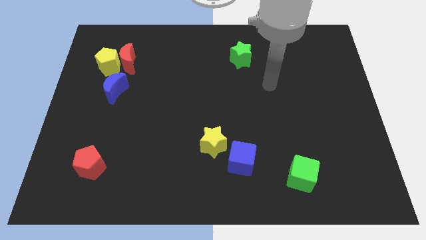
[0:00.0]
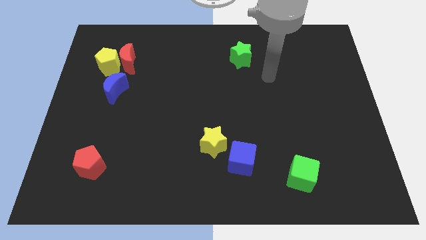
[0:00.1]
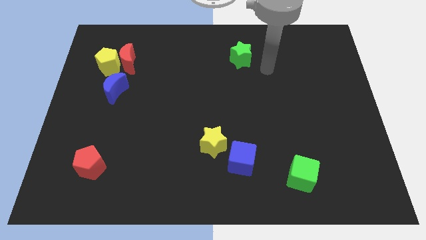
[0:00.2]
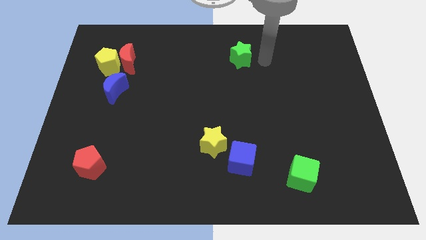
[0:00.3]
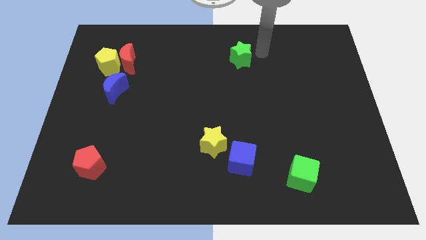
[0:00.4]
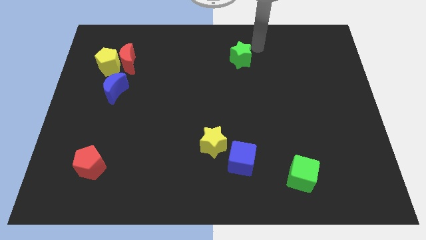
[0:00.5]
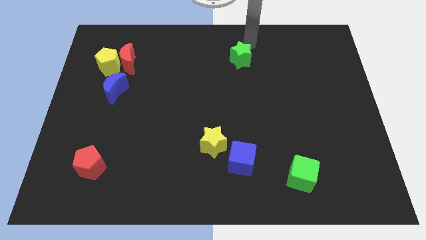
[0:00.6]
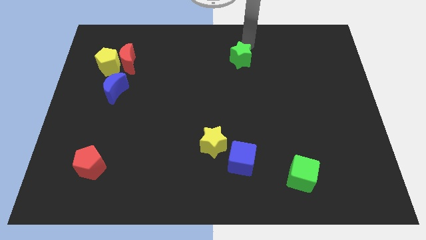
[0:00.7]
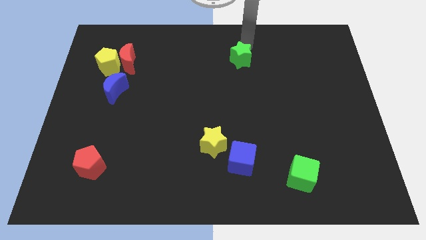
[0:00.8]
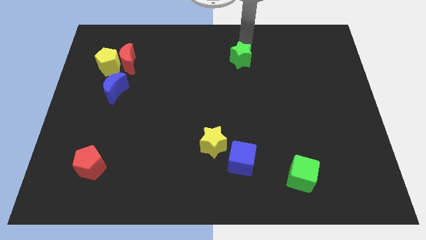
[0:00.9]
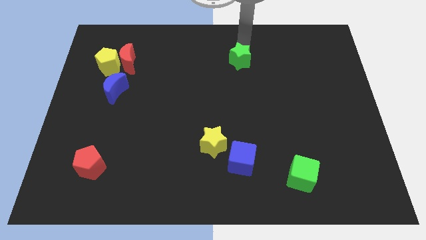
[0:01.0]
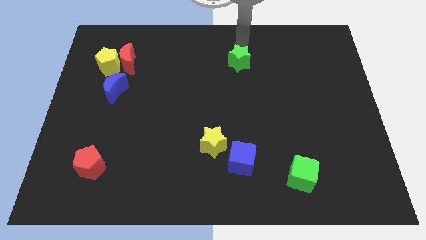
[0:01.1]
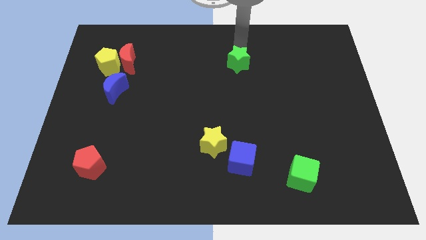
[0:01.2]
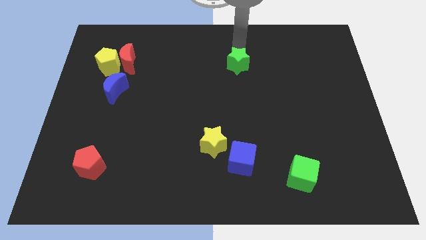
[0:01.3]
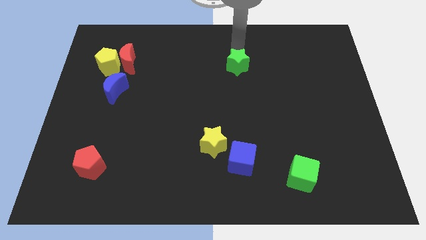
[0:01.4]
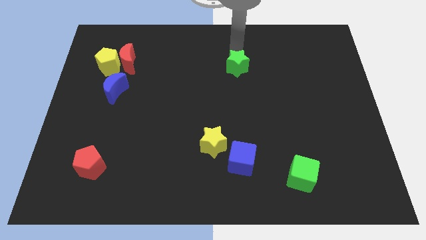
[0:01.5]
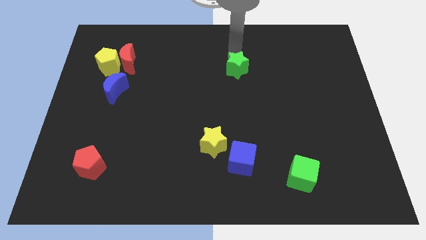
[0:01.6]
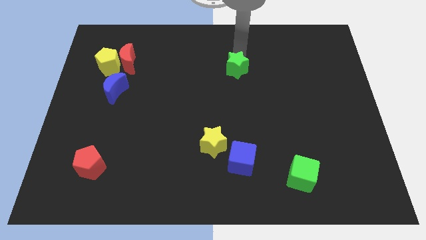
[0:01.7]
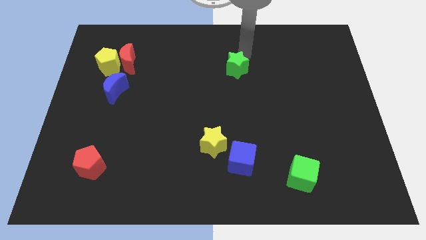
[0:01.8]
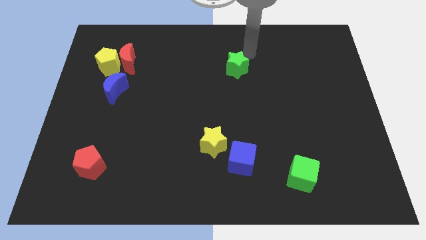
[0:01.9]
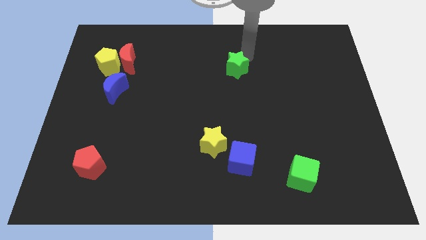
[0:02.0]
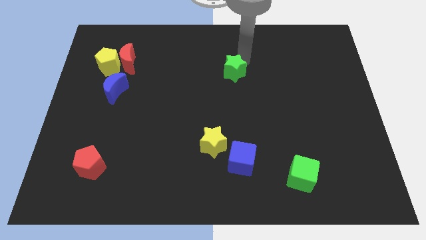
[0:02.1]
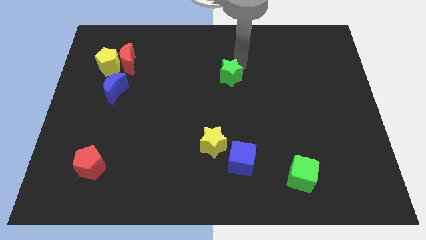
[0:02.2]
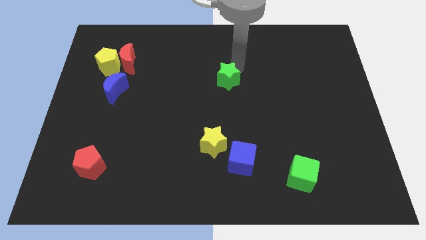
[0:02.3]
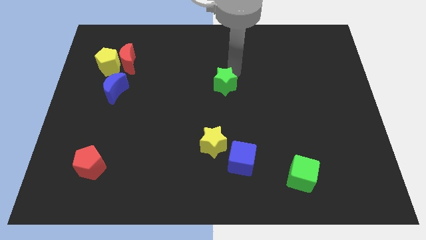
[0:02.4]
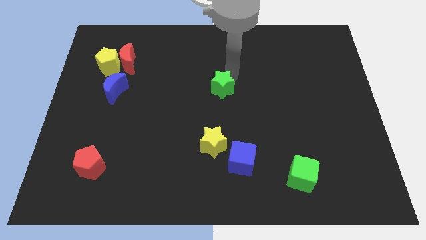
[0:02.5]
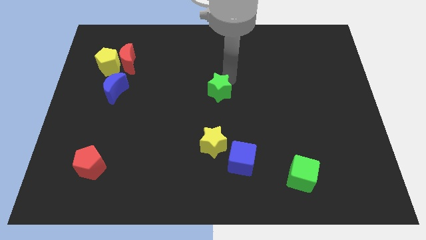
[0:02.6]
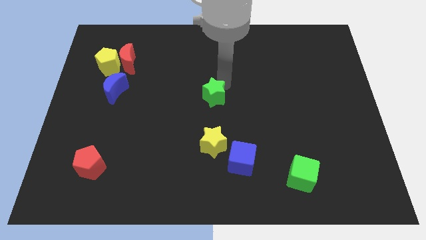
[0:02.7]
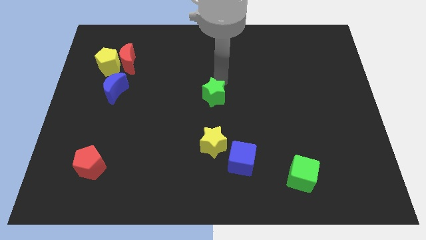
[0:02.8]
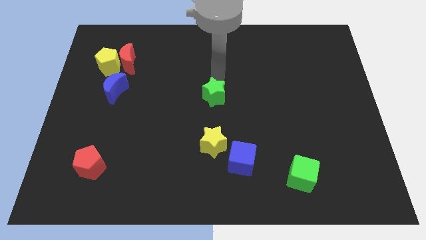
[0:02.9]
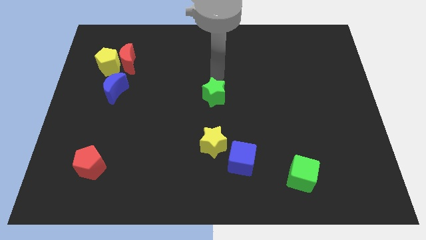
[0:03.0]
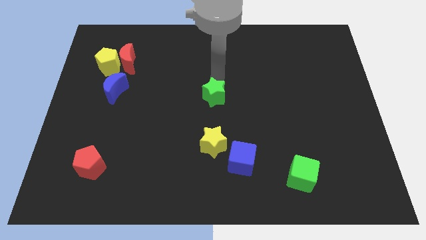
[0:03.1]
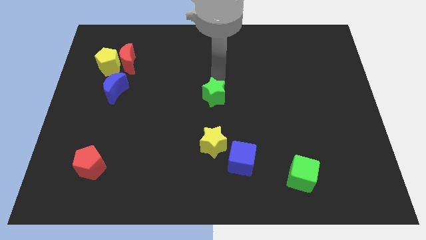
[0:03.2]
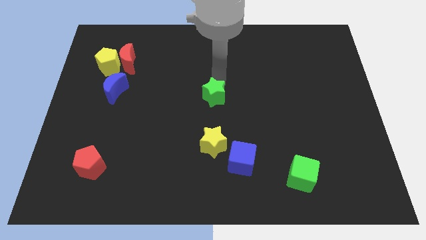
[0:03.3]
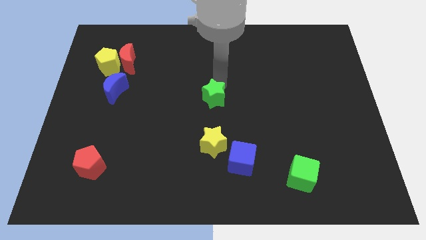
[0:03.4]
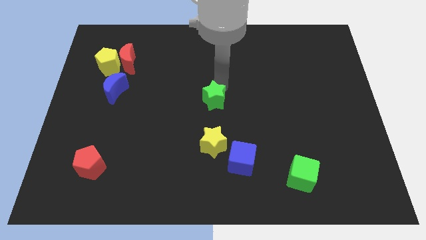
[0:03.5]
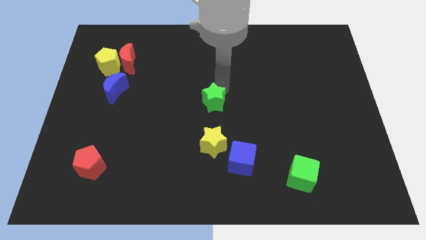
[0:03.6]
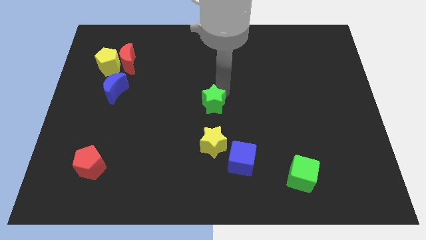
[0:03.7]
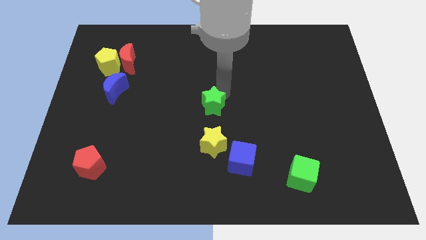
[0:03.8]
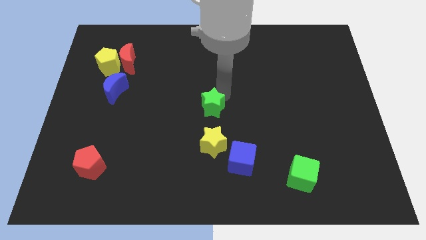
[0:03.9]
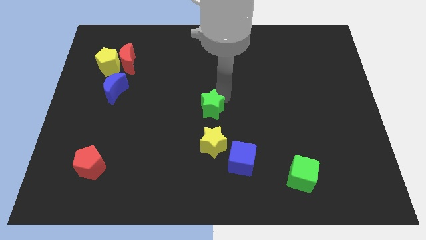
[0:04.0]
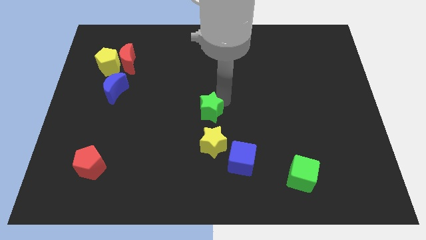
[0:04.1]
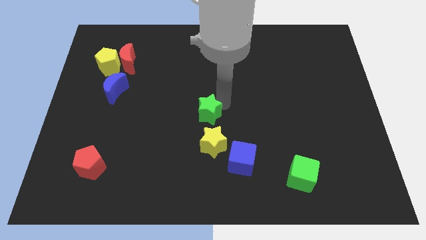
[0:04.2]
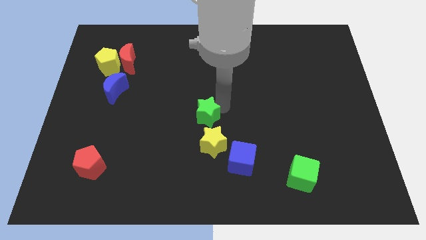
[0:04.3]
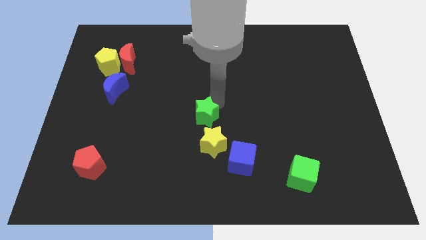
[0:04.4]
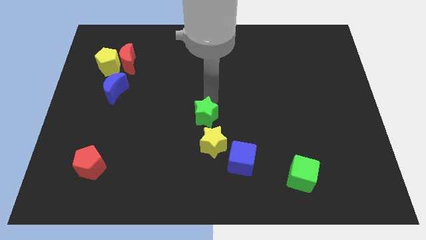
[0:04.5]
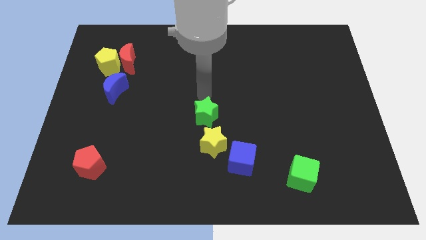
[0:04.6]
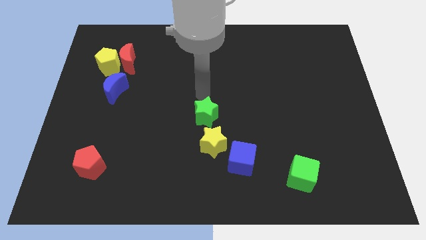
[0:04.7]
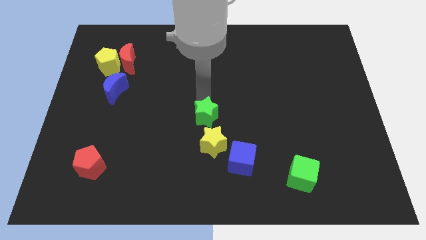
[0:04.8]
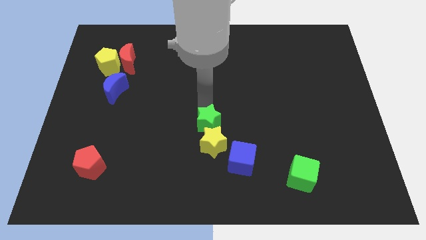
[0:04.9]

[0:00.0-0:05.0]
slide the green star next to the yellow star

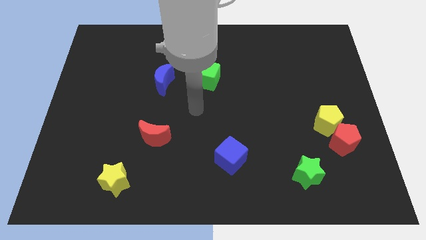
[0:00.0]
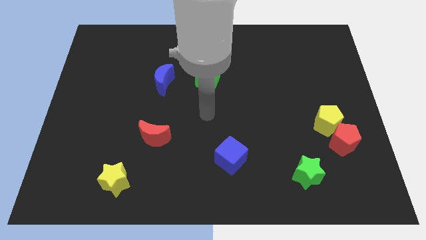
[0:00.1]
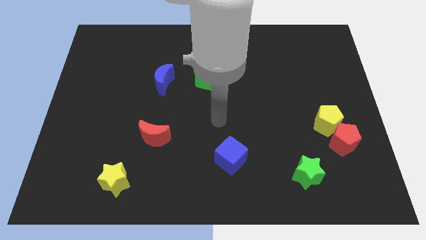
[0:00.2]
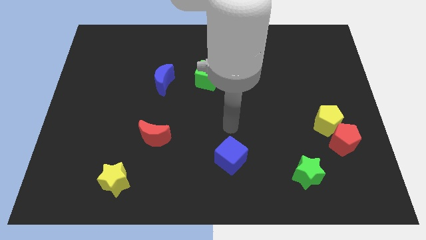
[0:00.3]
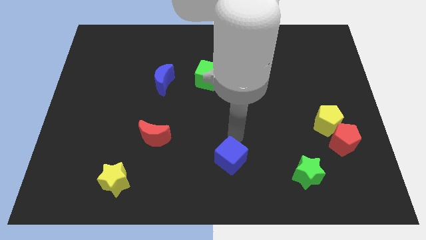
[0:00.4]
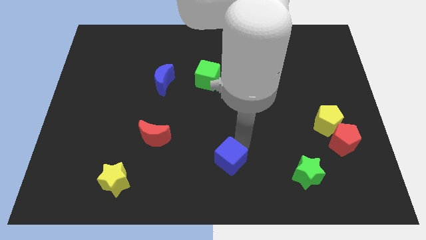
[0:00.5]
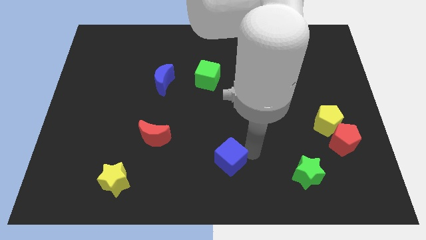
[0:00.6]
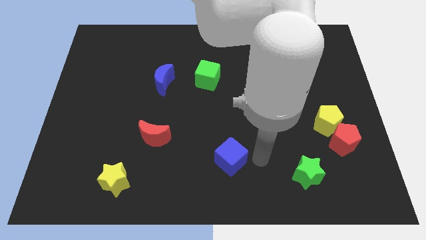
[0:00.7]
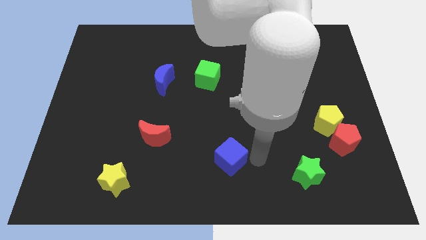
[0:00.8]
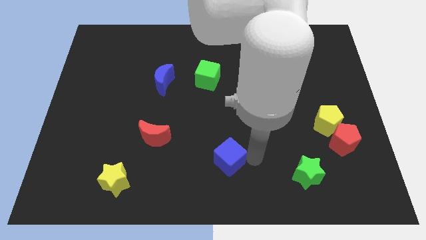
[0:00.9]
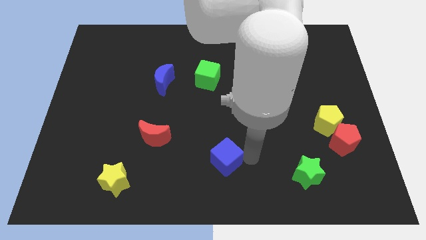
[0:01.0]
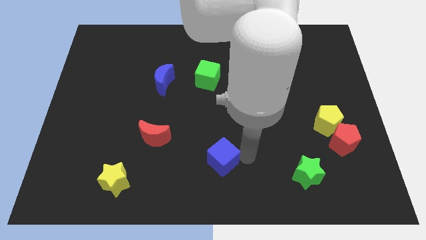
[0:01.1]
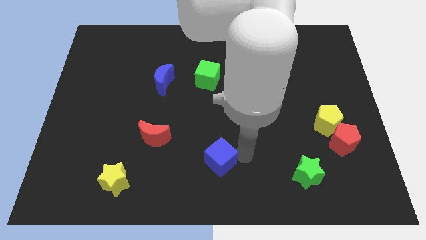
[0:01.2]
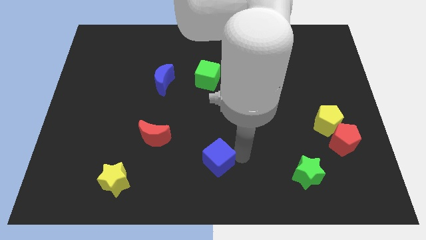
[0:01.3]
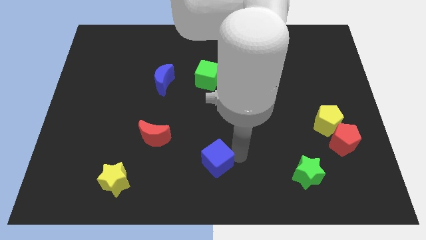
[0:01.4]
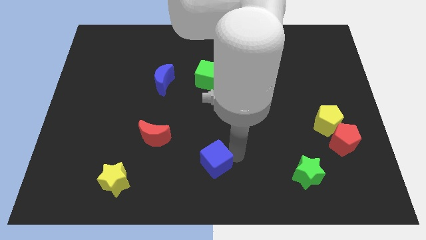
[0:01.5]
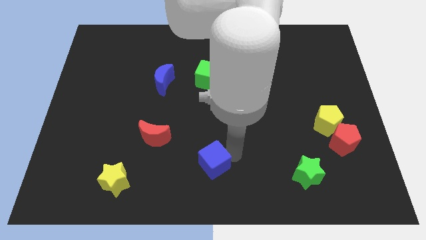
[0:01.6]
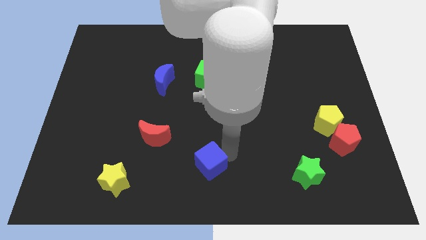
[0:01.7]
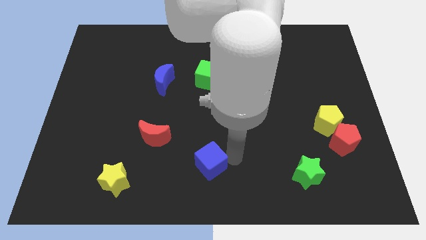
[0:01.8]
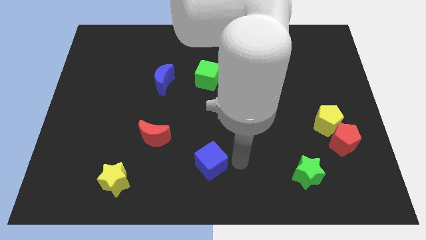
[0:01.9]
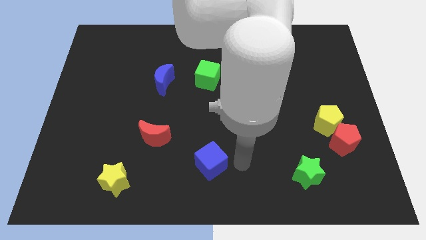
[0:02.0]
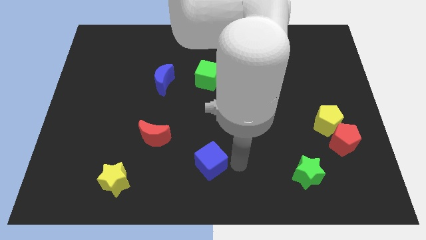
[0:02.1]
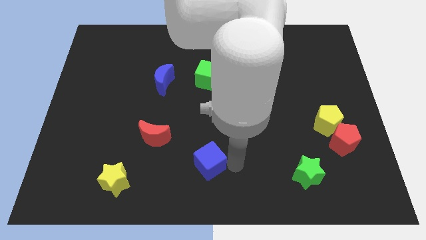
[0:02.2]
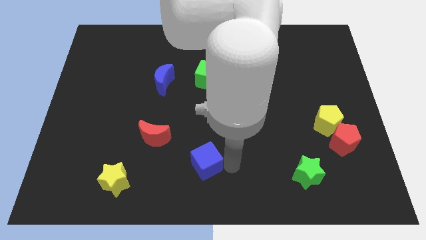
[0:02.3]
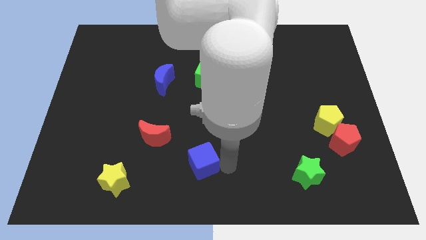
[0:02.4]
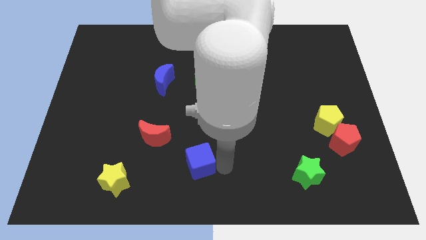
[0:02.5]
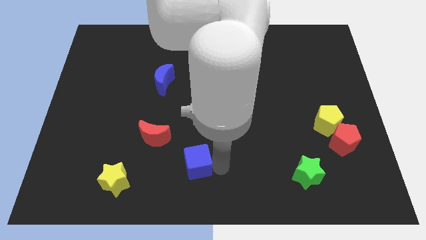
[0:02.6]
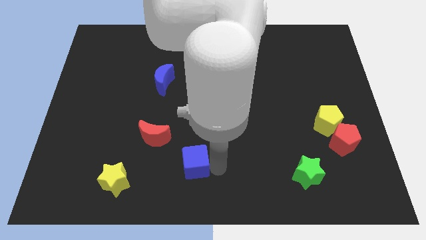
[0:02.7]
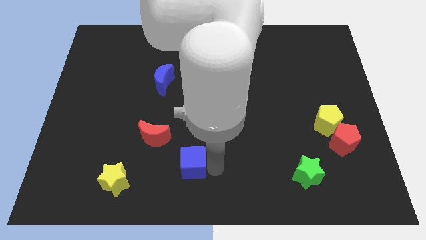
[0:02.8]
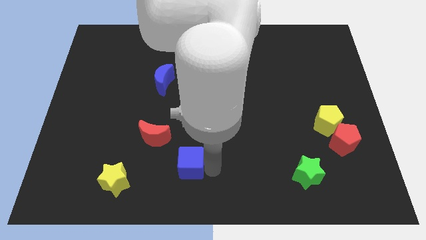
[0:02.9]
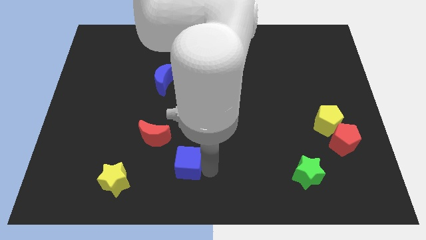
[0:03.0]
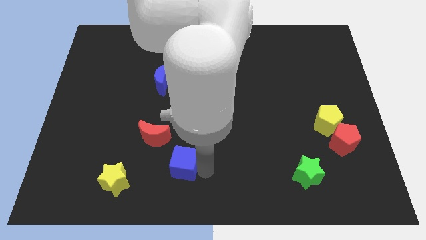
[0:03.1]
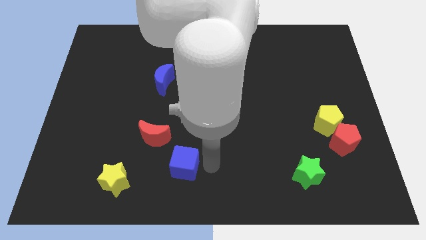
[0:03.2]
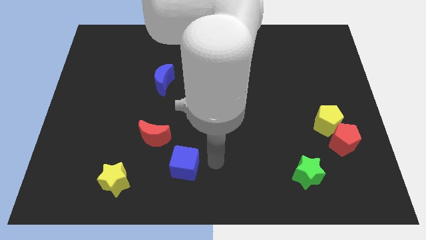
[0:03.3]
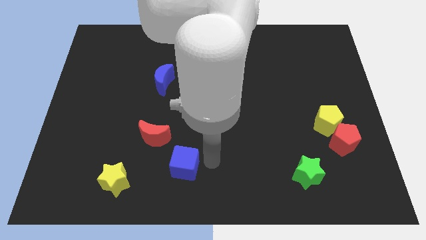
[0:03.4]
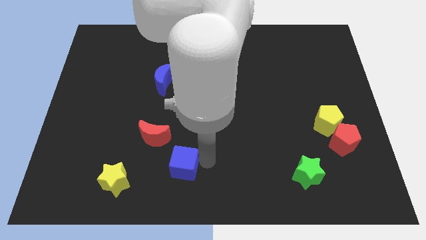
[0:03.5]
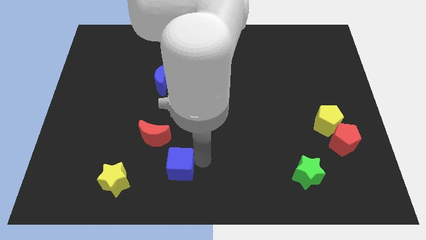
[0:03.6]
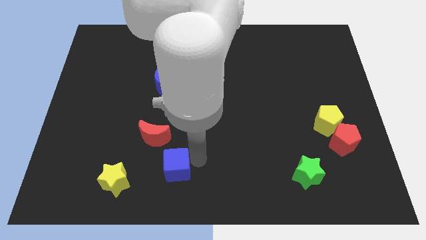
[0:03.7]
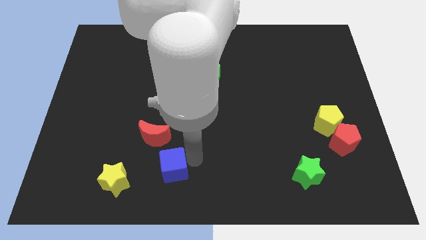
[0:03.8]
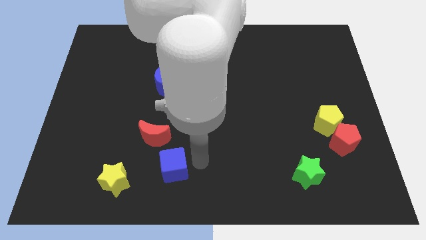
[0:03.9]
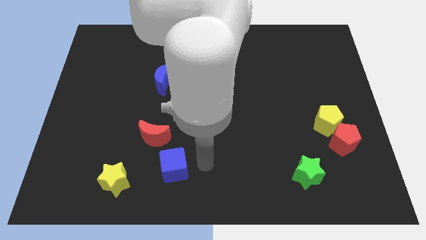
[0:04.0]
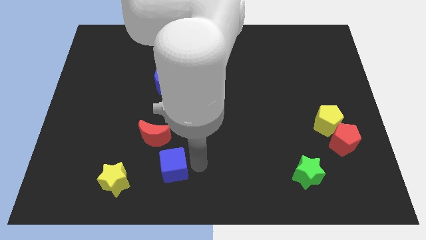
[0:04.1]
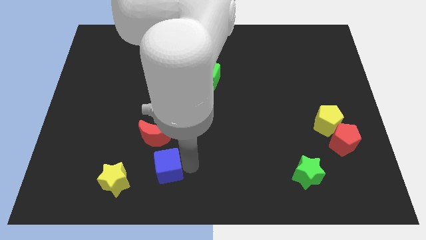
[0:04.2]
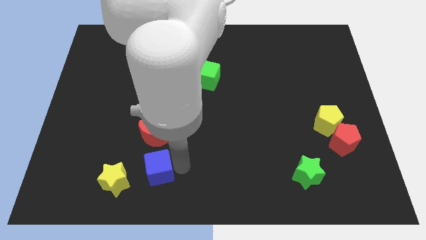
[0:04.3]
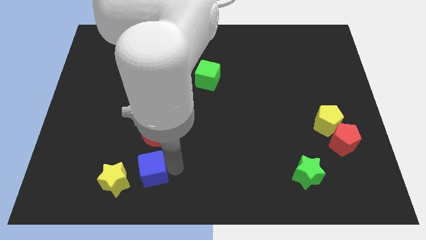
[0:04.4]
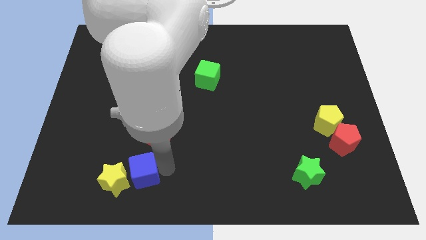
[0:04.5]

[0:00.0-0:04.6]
push the blue cube towards the yellow star
